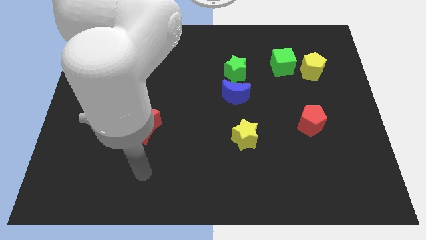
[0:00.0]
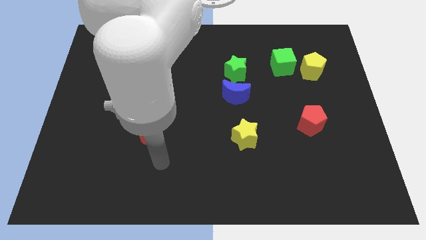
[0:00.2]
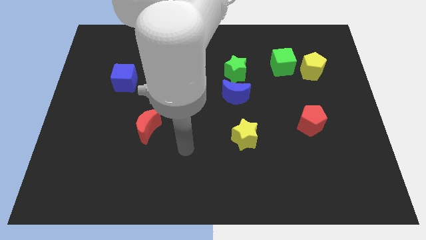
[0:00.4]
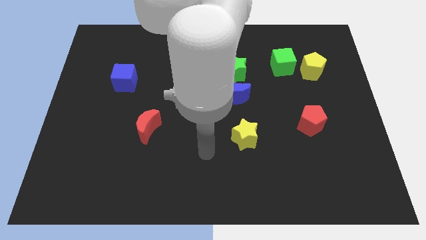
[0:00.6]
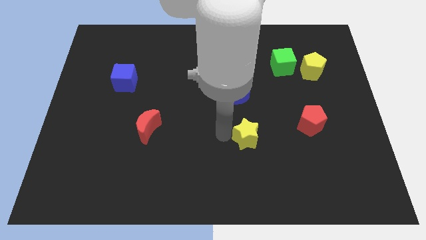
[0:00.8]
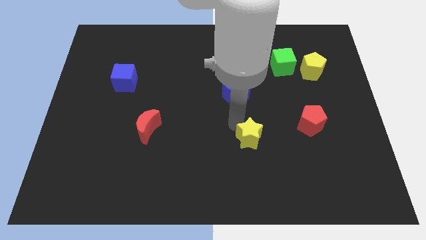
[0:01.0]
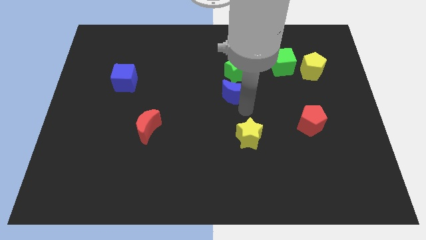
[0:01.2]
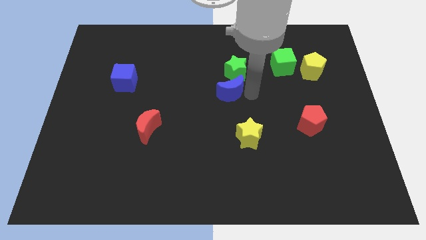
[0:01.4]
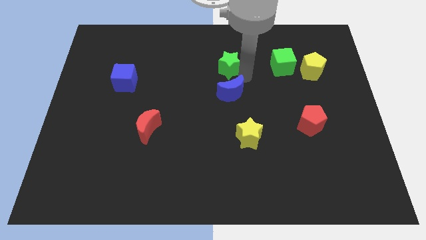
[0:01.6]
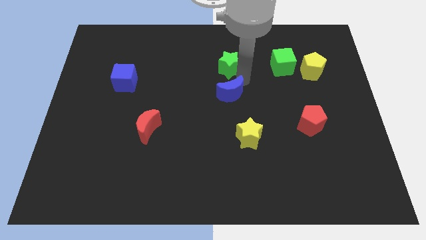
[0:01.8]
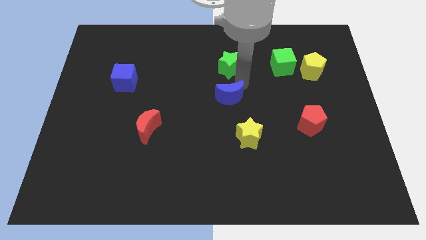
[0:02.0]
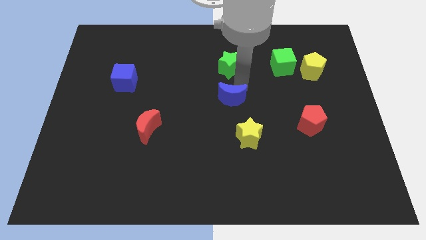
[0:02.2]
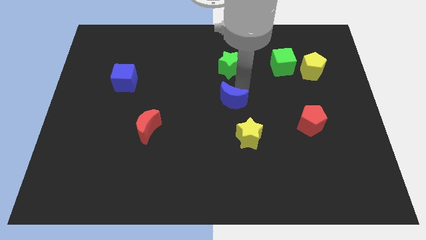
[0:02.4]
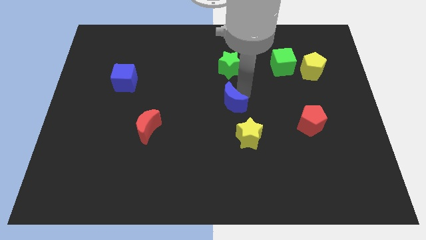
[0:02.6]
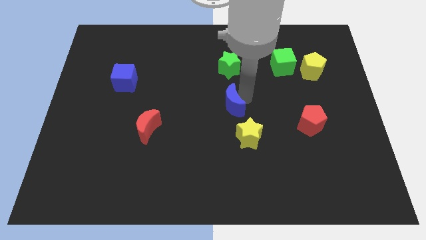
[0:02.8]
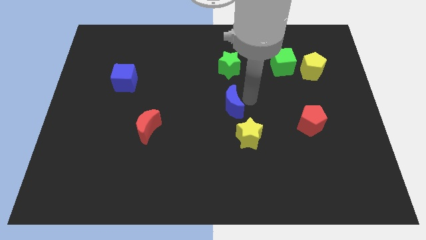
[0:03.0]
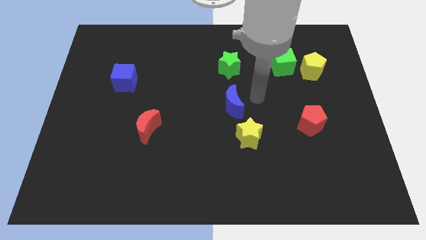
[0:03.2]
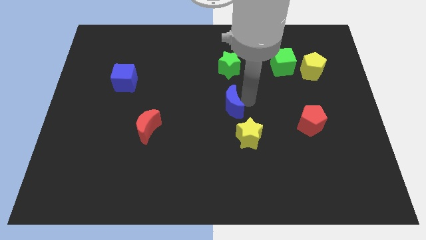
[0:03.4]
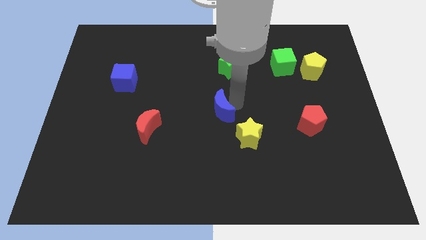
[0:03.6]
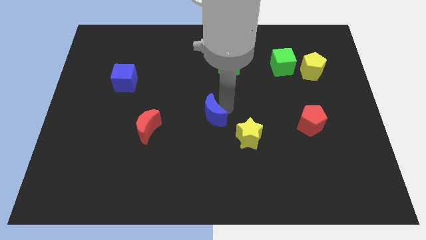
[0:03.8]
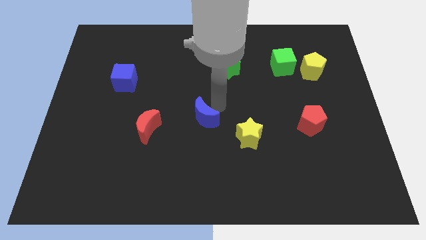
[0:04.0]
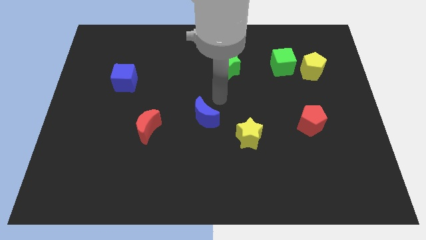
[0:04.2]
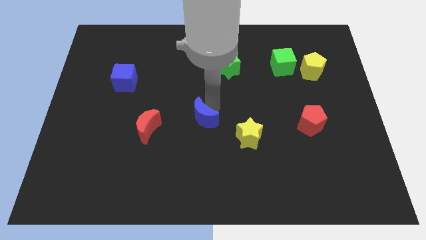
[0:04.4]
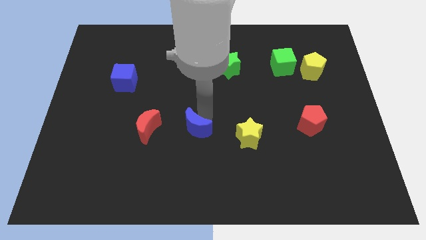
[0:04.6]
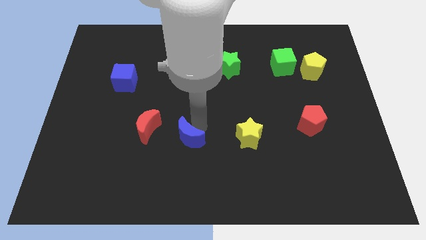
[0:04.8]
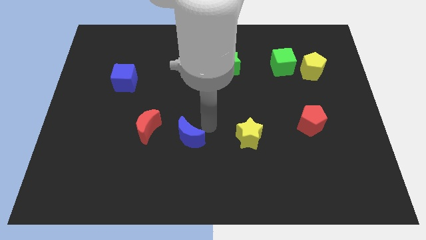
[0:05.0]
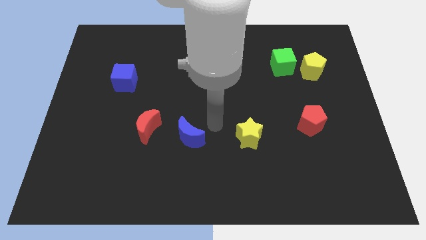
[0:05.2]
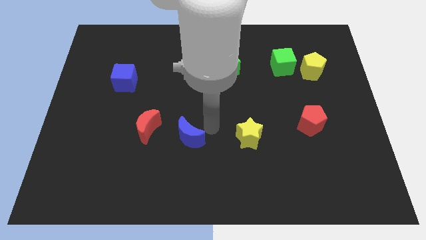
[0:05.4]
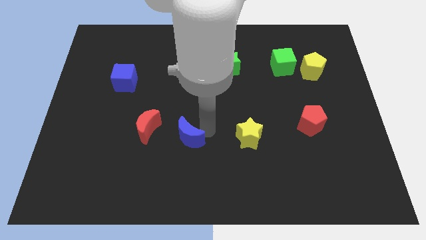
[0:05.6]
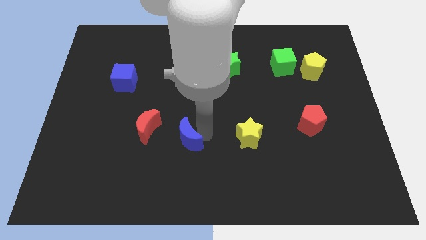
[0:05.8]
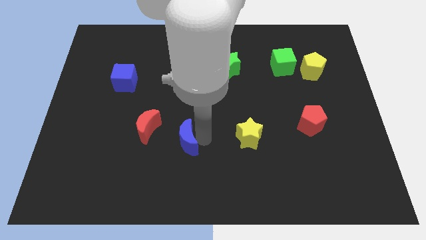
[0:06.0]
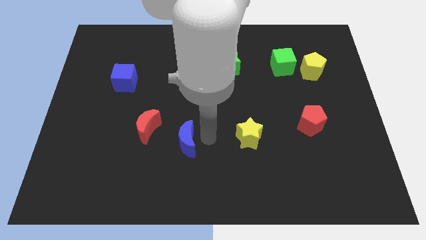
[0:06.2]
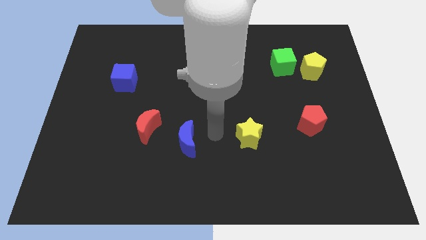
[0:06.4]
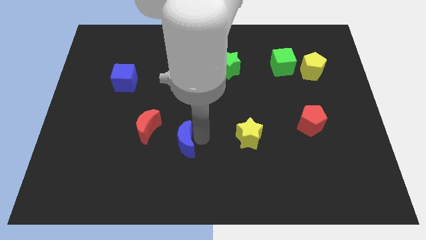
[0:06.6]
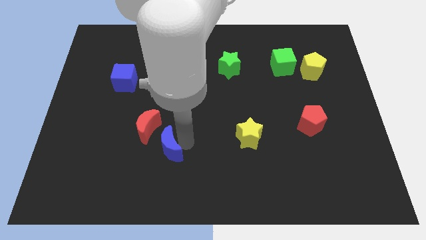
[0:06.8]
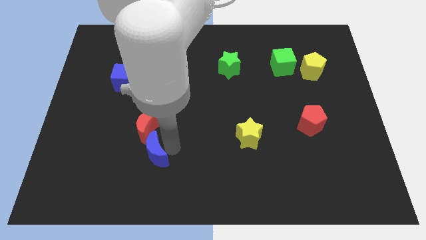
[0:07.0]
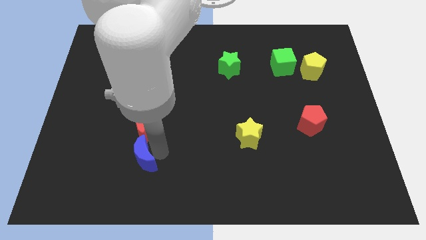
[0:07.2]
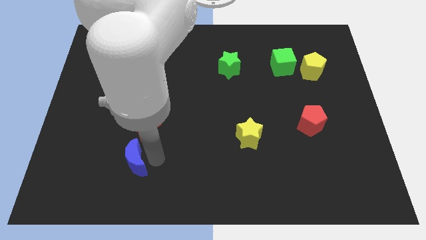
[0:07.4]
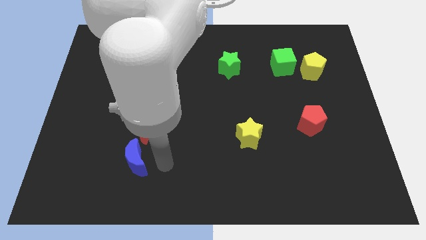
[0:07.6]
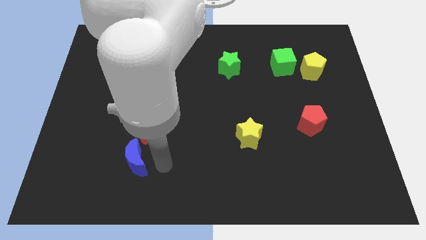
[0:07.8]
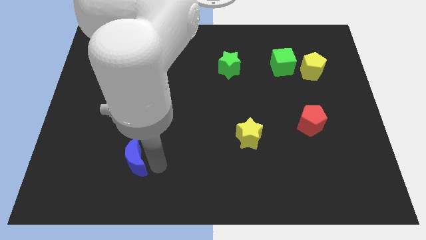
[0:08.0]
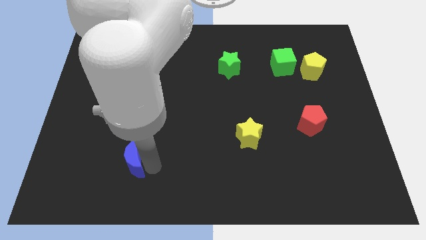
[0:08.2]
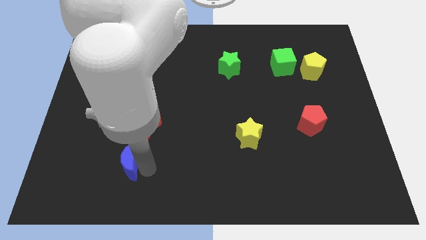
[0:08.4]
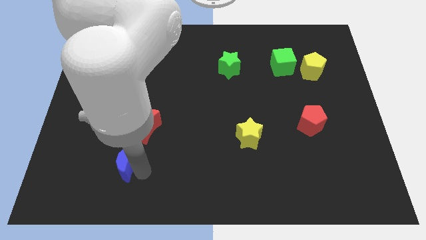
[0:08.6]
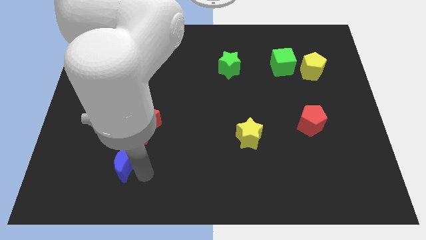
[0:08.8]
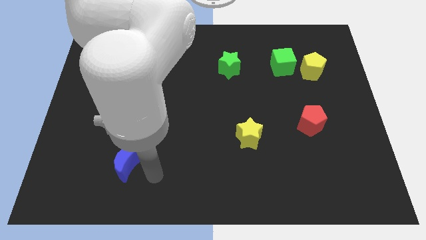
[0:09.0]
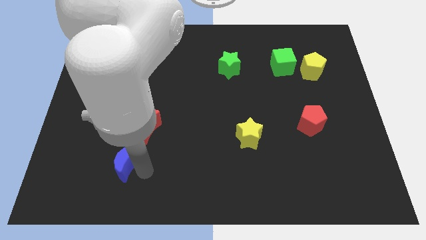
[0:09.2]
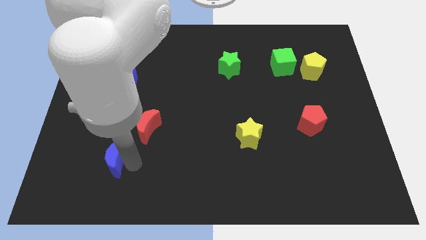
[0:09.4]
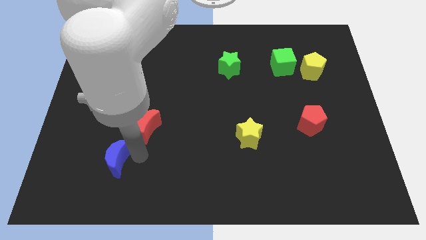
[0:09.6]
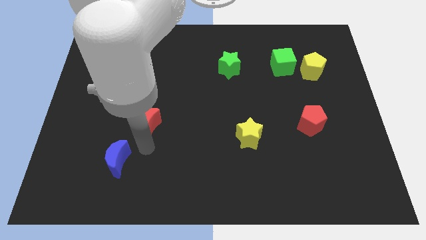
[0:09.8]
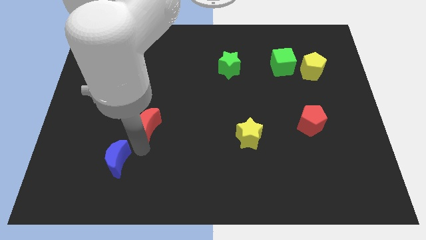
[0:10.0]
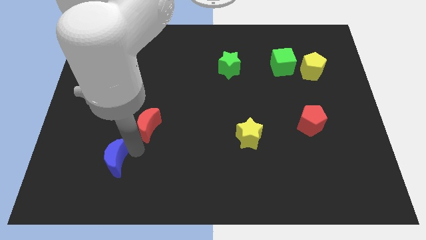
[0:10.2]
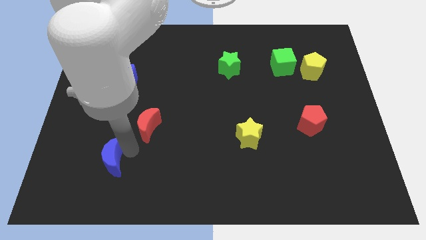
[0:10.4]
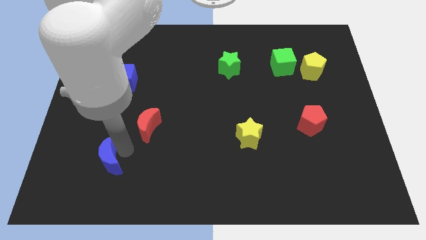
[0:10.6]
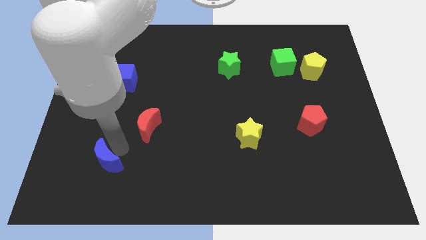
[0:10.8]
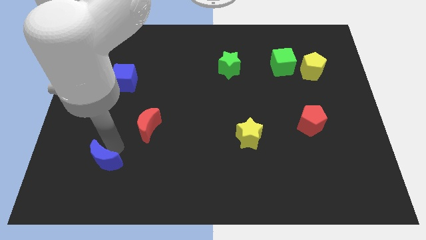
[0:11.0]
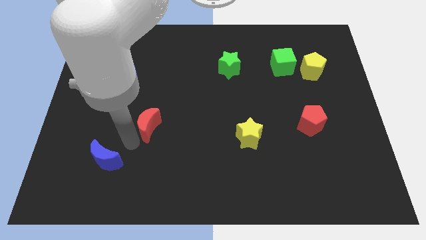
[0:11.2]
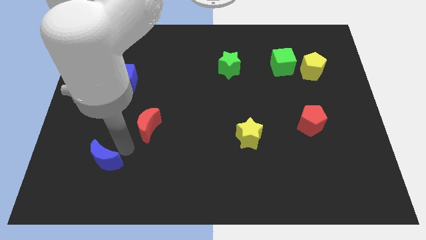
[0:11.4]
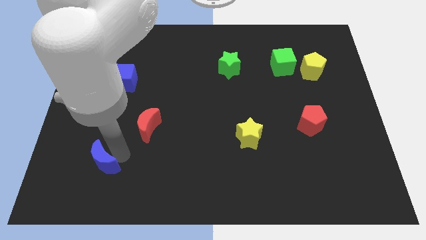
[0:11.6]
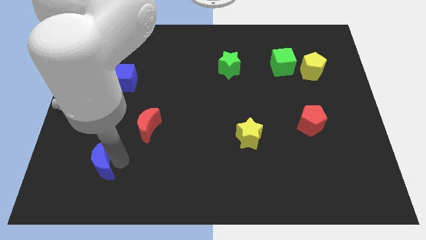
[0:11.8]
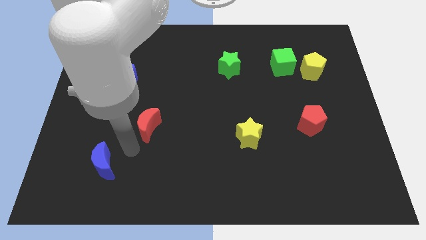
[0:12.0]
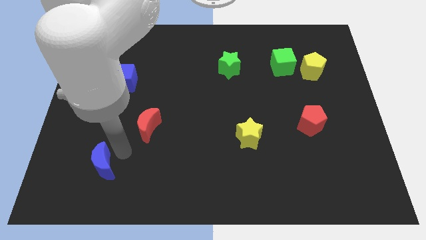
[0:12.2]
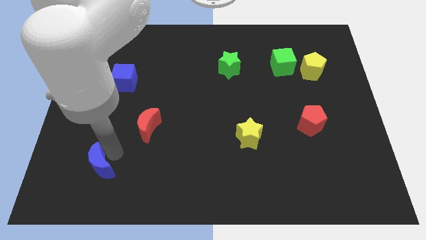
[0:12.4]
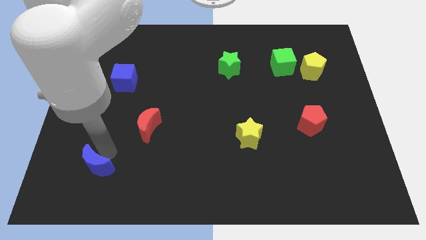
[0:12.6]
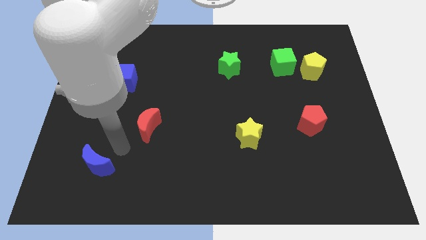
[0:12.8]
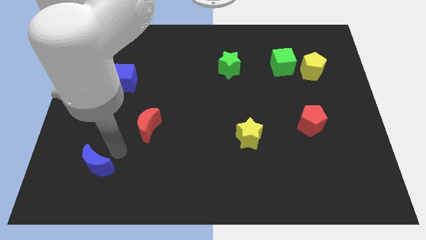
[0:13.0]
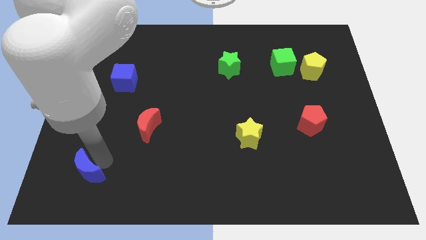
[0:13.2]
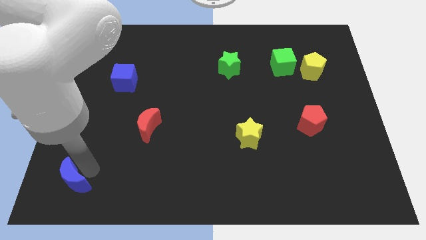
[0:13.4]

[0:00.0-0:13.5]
push the blue moon to the bottom left
